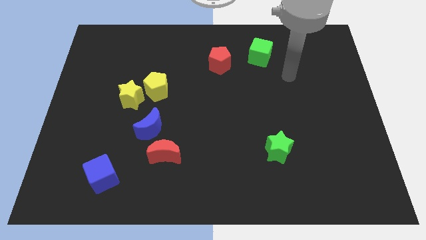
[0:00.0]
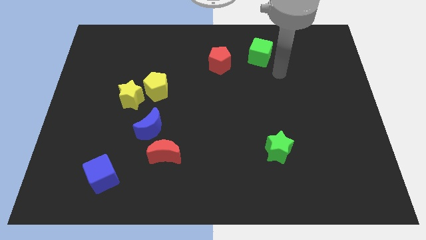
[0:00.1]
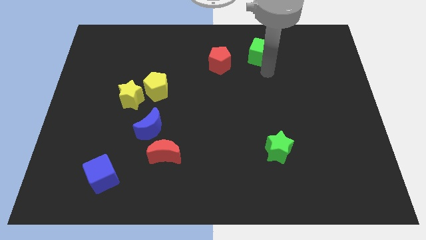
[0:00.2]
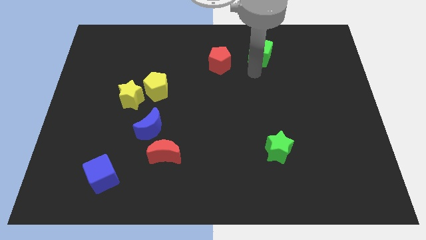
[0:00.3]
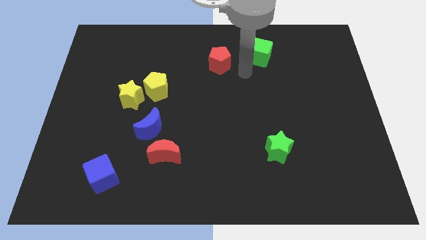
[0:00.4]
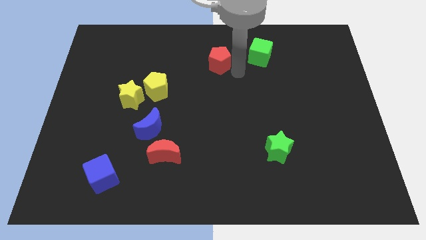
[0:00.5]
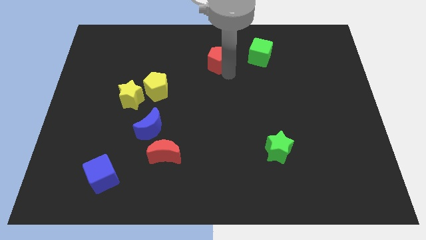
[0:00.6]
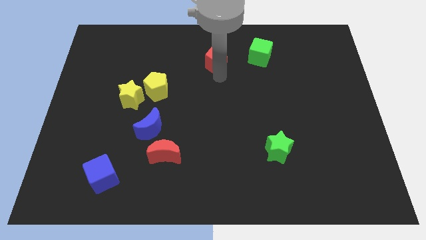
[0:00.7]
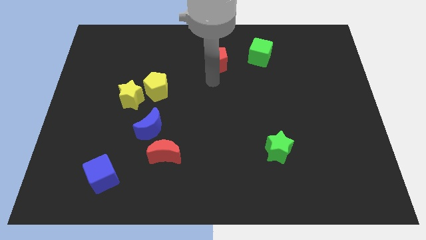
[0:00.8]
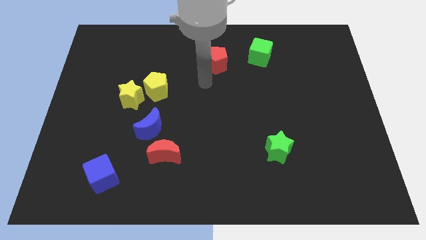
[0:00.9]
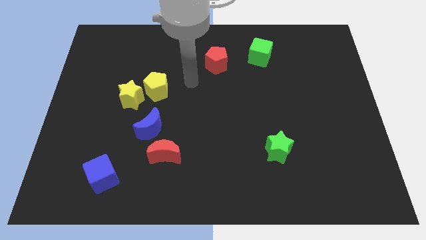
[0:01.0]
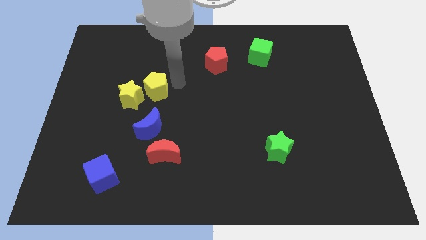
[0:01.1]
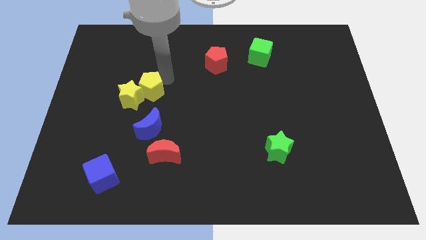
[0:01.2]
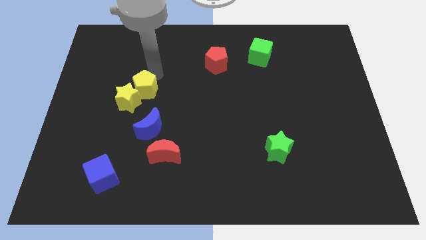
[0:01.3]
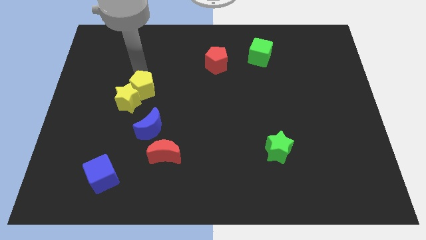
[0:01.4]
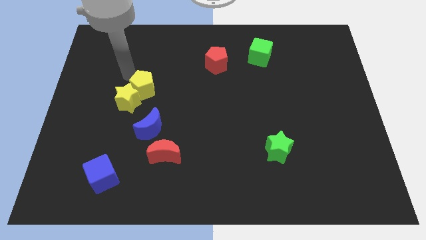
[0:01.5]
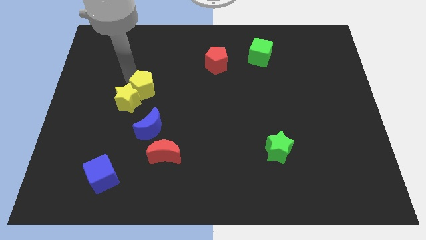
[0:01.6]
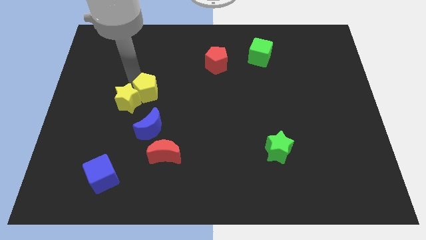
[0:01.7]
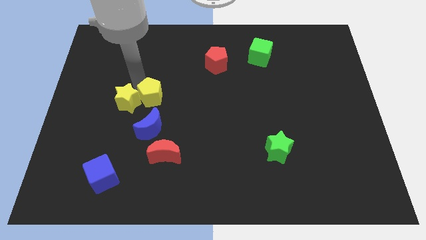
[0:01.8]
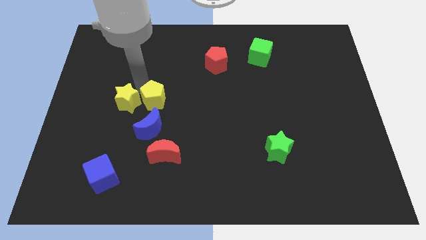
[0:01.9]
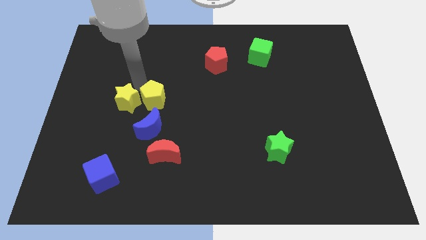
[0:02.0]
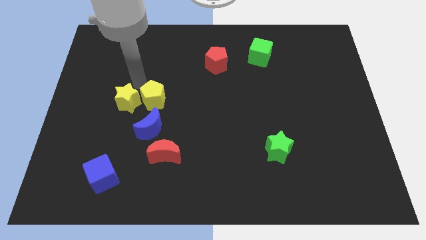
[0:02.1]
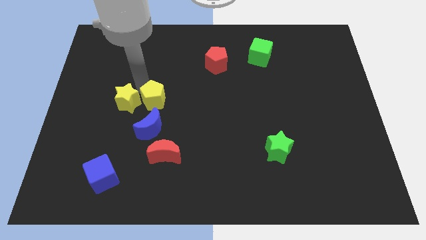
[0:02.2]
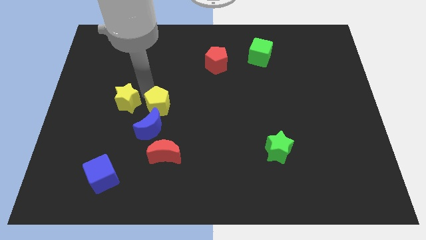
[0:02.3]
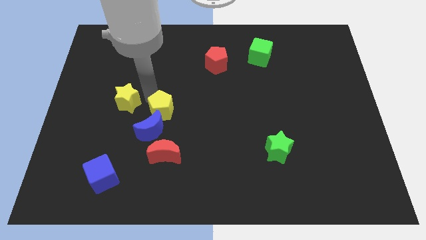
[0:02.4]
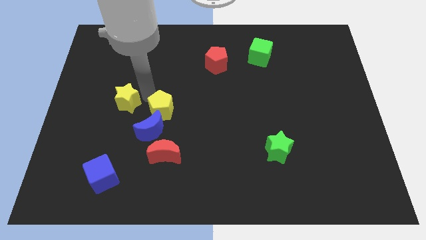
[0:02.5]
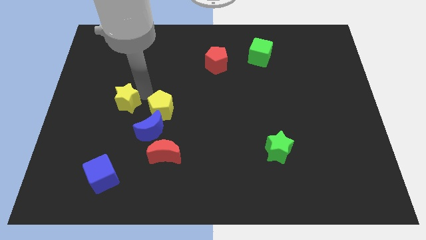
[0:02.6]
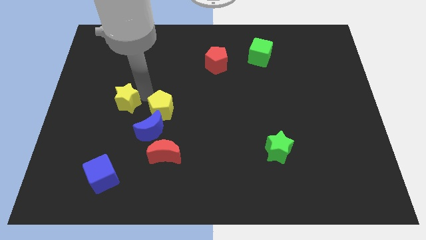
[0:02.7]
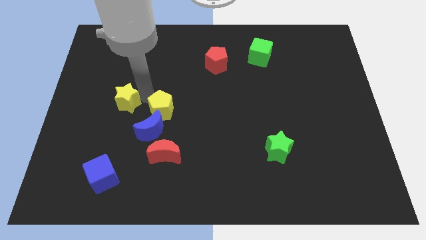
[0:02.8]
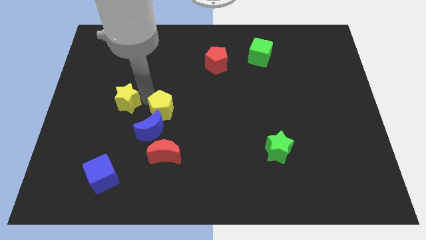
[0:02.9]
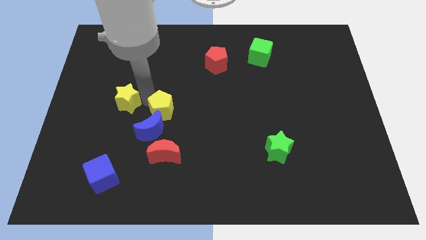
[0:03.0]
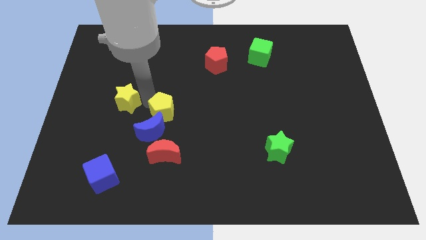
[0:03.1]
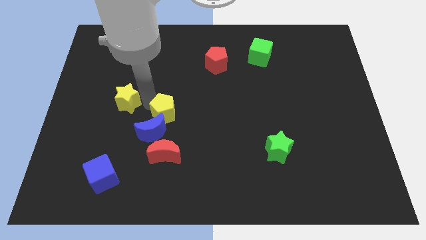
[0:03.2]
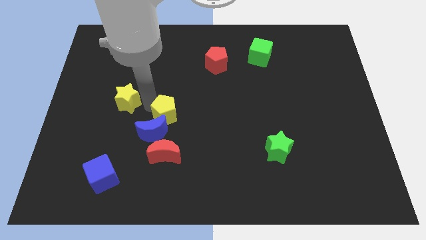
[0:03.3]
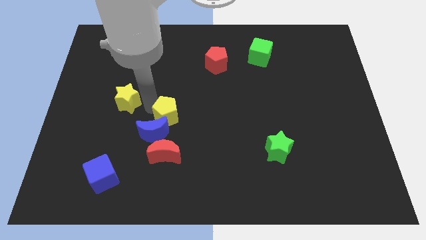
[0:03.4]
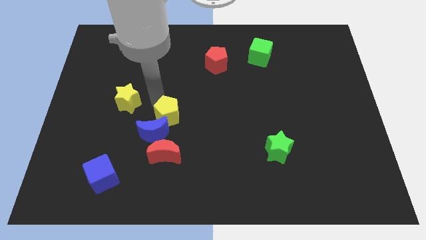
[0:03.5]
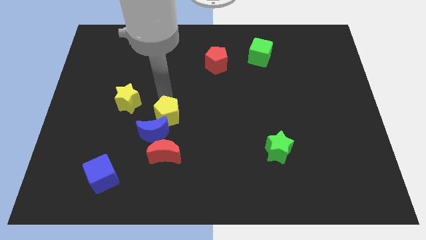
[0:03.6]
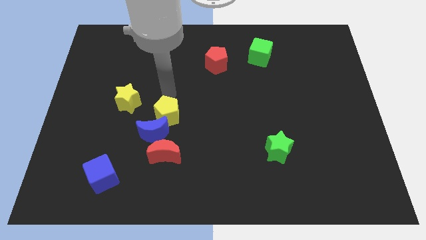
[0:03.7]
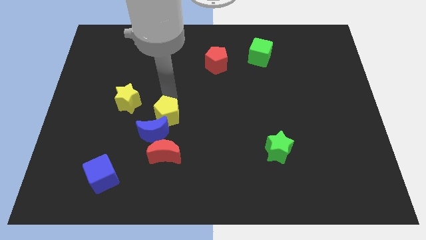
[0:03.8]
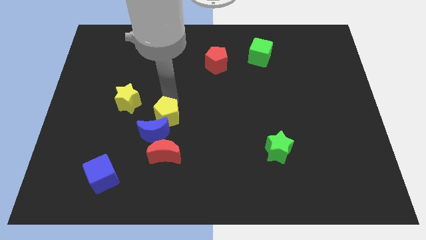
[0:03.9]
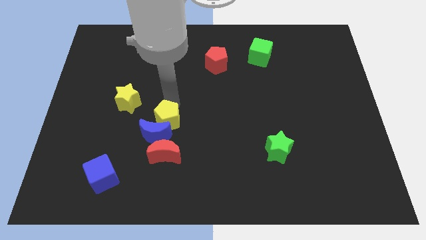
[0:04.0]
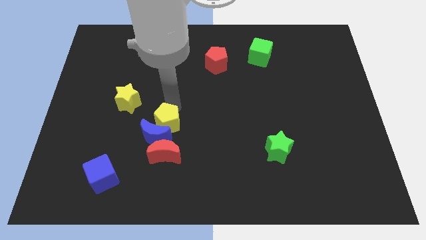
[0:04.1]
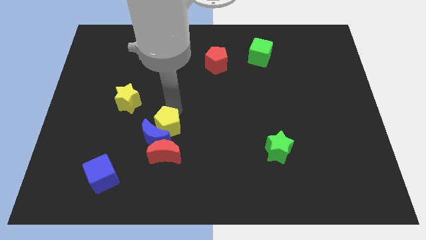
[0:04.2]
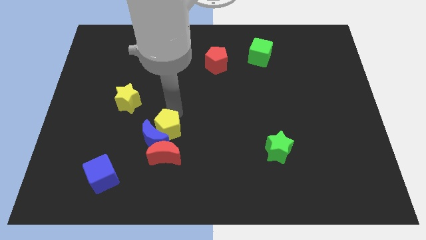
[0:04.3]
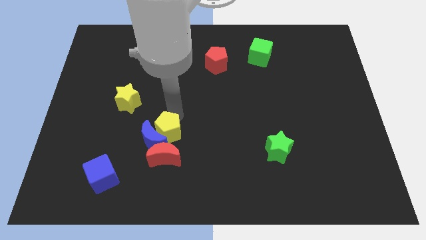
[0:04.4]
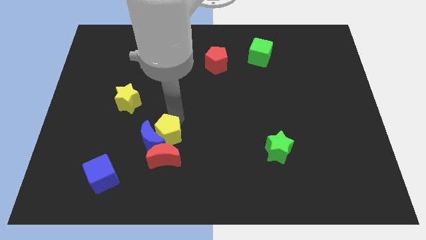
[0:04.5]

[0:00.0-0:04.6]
move the yellow pentagon close to the red moon

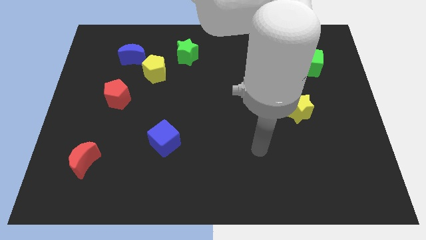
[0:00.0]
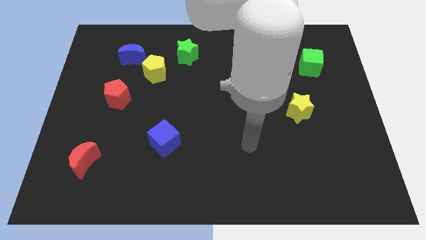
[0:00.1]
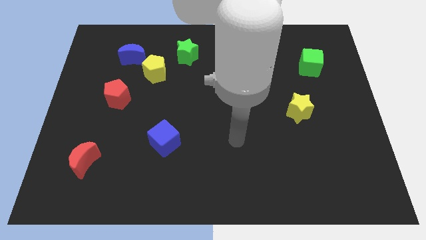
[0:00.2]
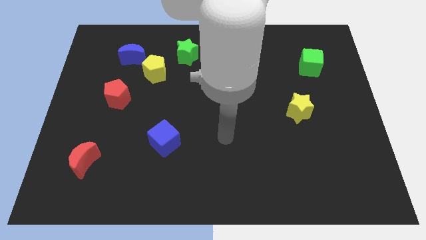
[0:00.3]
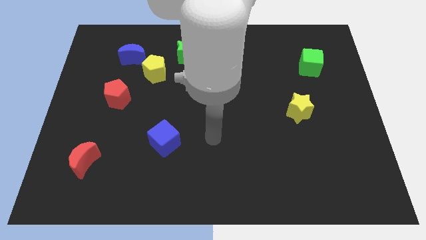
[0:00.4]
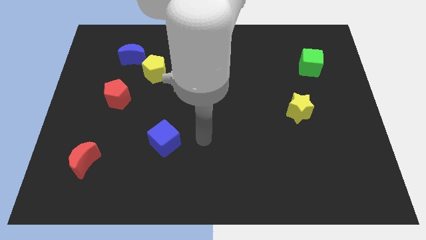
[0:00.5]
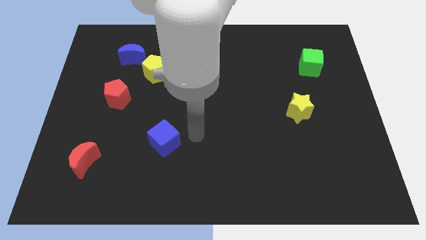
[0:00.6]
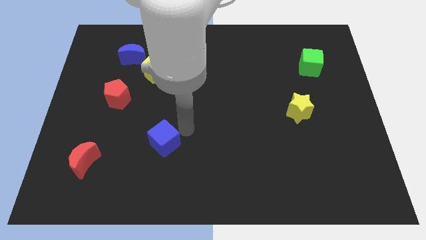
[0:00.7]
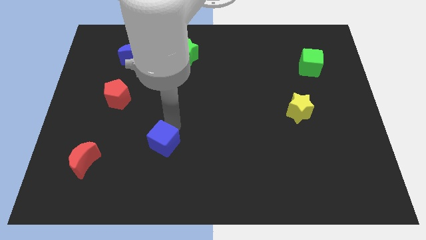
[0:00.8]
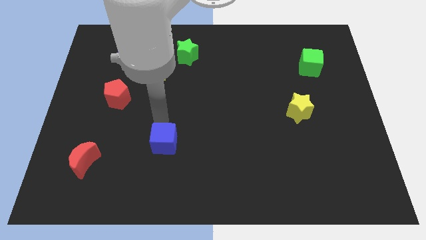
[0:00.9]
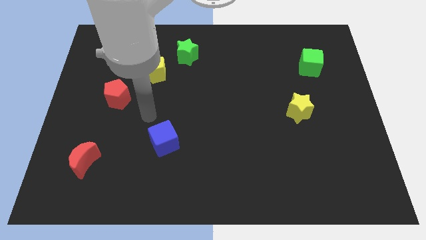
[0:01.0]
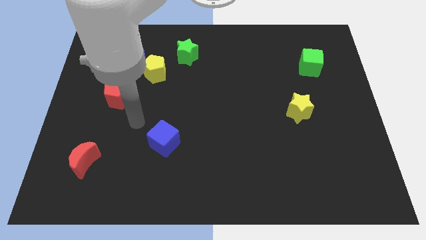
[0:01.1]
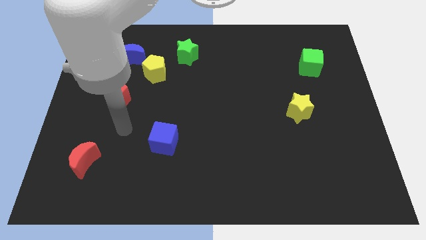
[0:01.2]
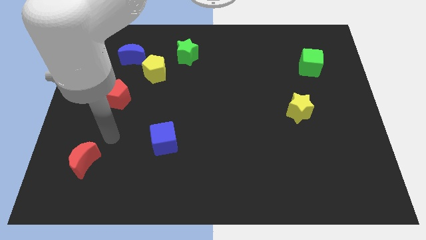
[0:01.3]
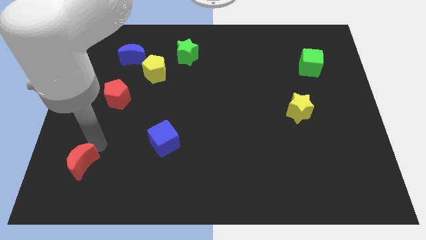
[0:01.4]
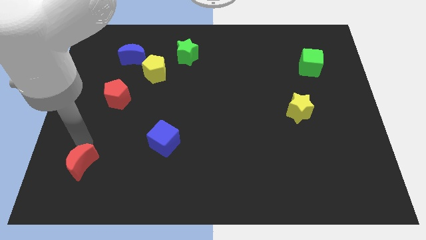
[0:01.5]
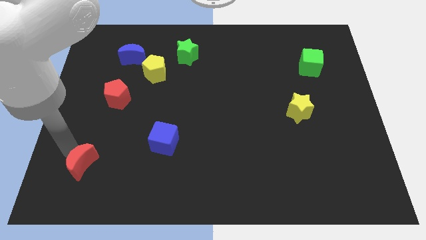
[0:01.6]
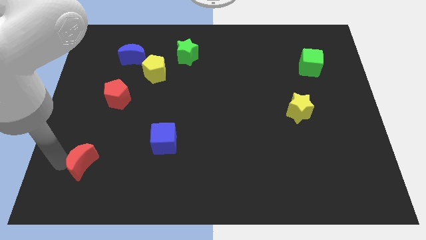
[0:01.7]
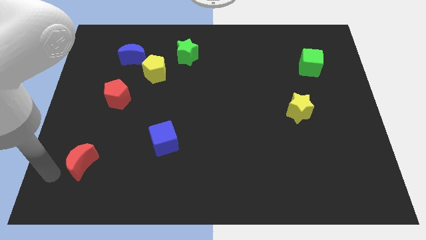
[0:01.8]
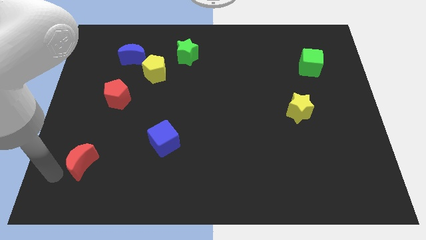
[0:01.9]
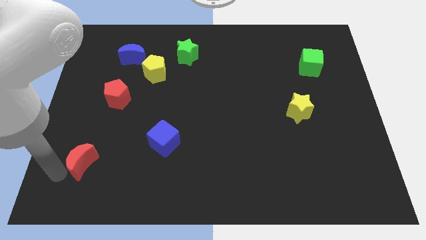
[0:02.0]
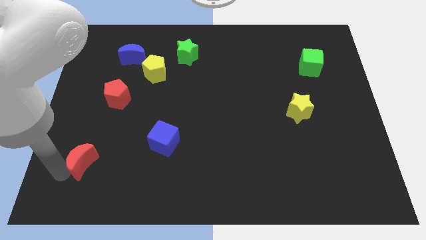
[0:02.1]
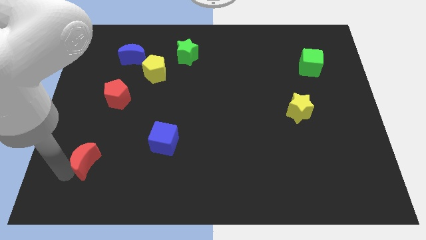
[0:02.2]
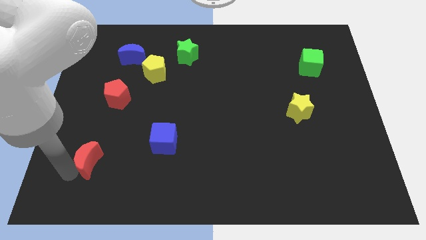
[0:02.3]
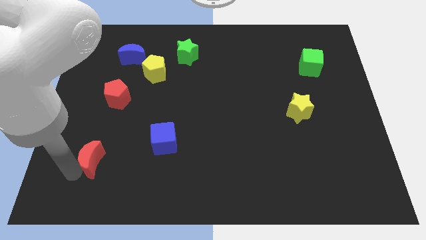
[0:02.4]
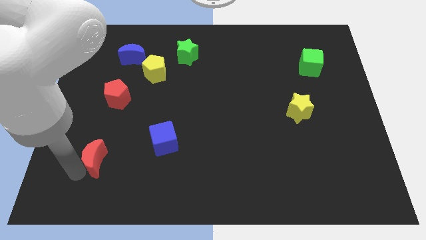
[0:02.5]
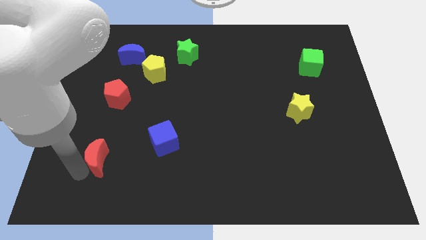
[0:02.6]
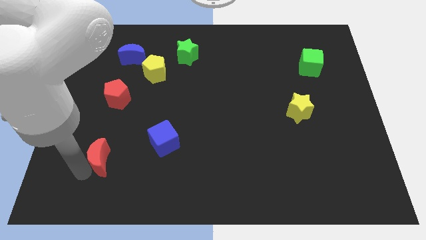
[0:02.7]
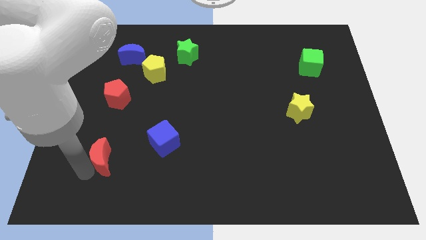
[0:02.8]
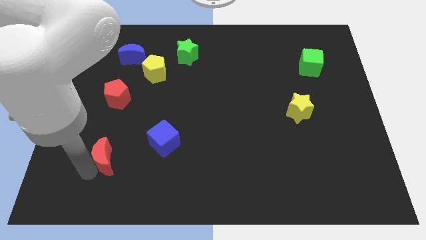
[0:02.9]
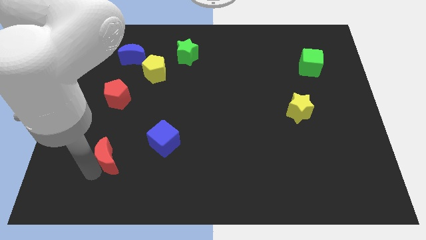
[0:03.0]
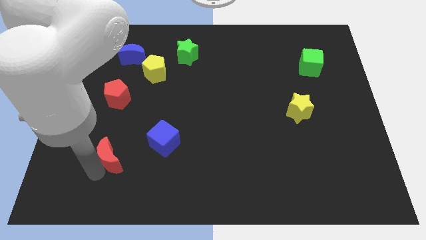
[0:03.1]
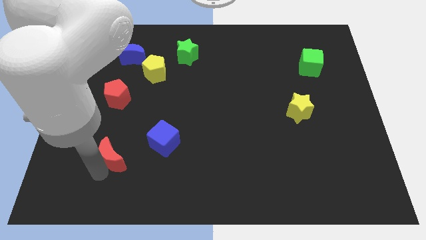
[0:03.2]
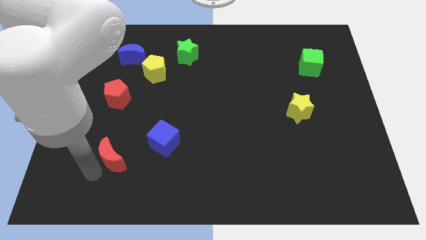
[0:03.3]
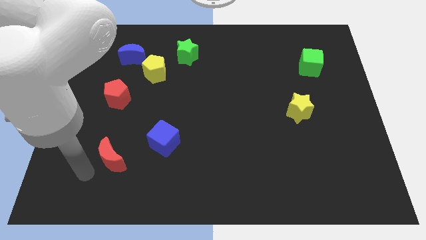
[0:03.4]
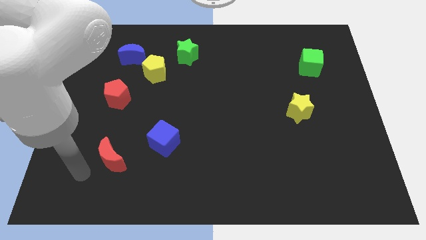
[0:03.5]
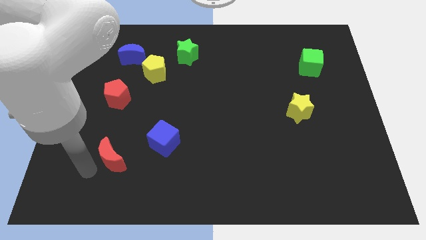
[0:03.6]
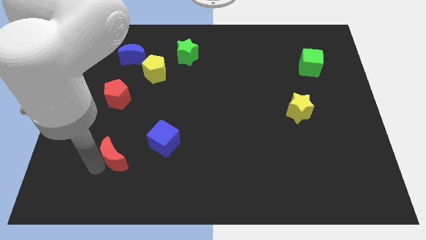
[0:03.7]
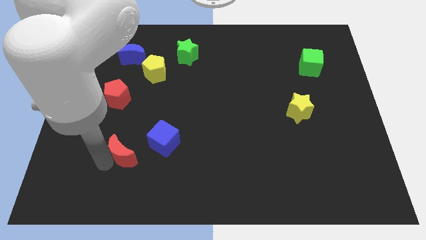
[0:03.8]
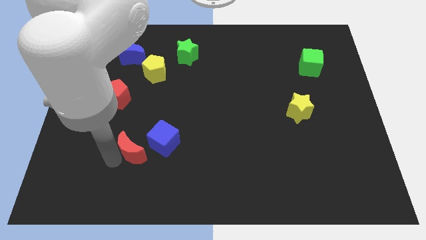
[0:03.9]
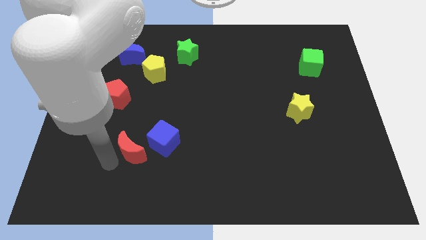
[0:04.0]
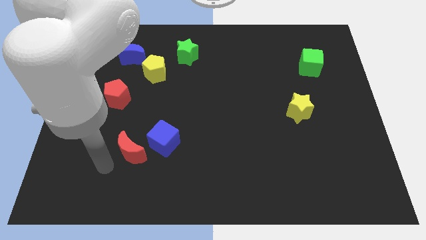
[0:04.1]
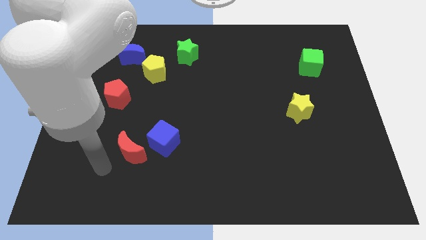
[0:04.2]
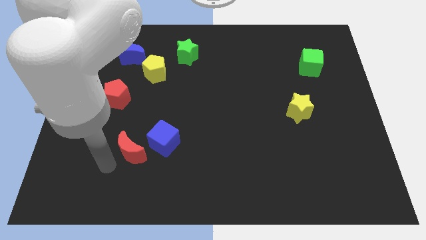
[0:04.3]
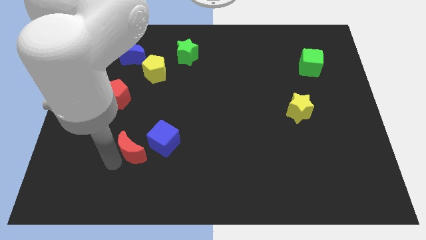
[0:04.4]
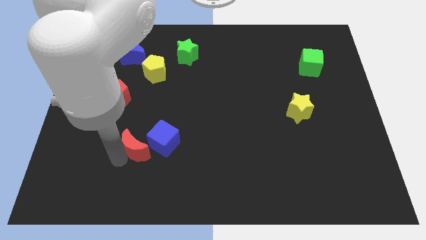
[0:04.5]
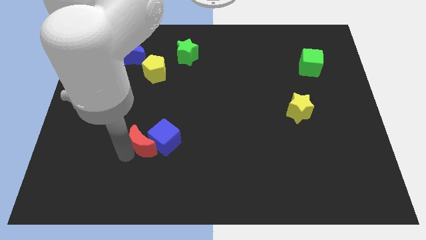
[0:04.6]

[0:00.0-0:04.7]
push the red moon close to the blue cube
